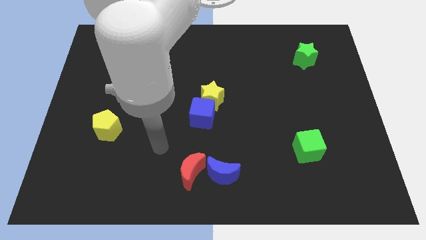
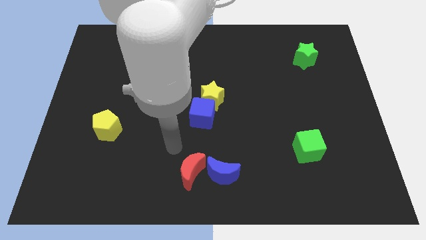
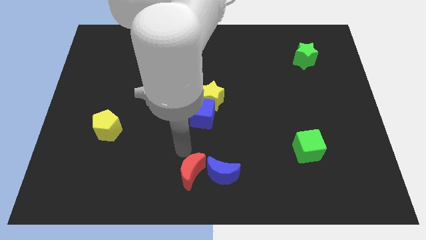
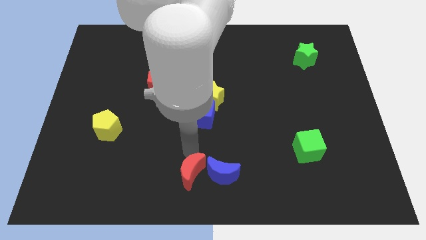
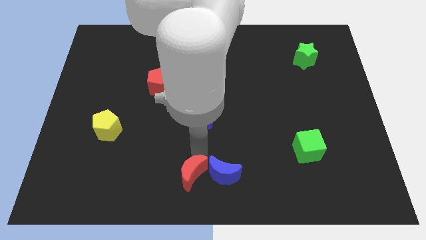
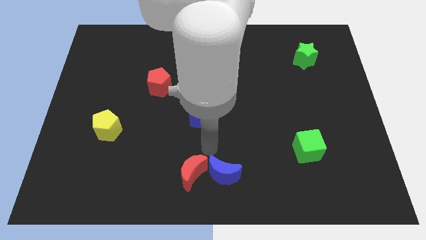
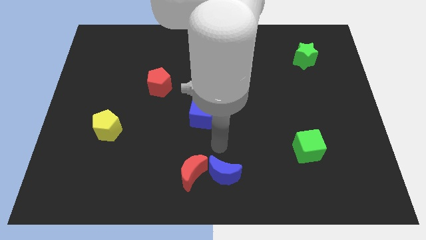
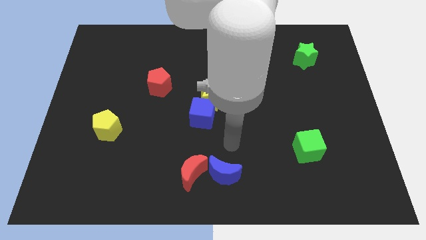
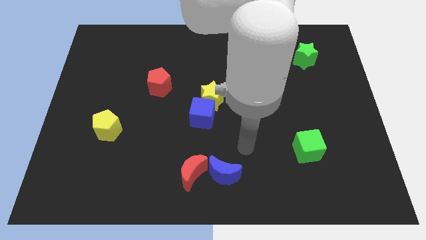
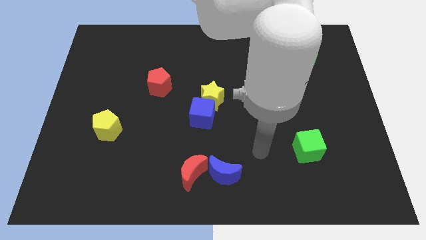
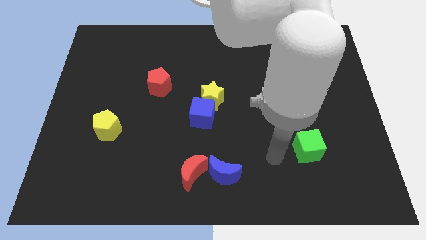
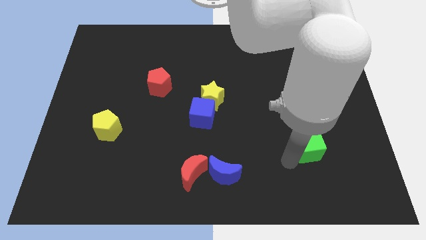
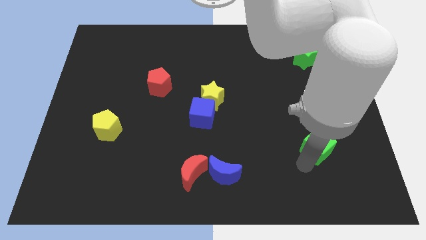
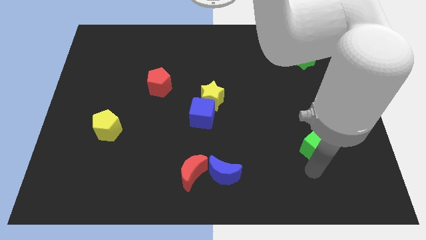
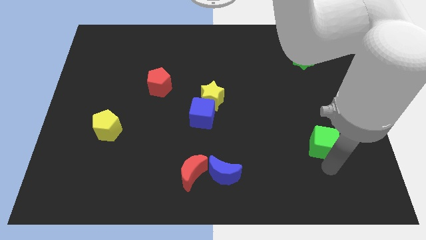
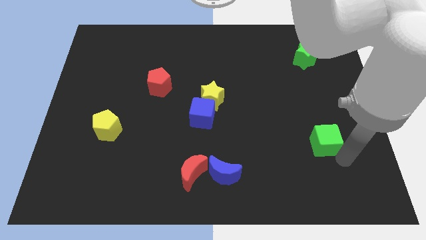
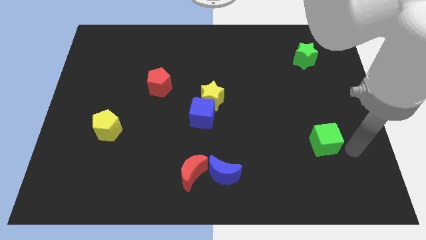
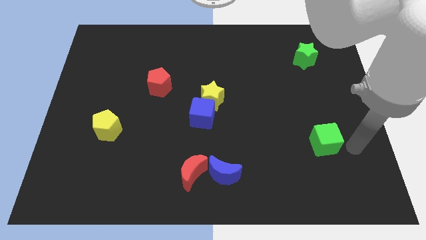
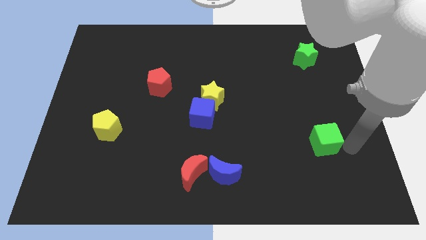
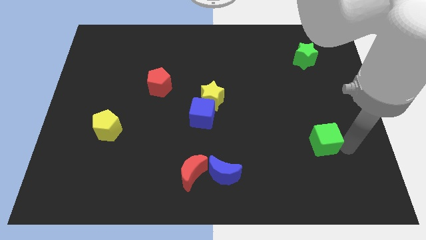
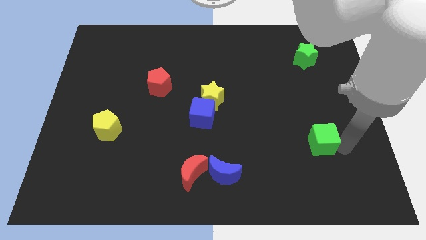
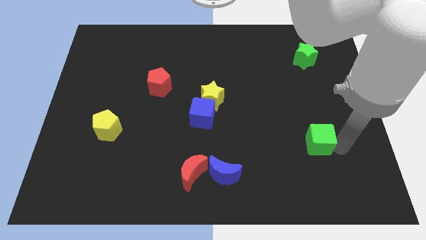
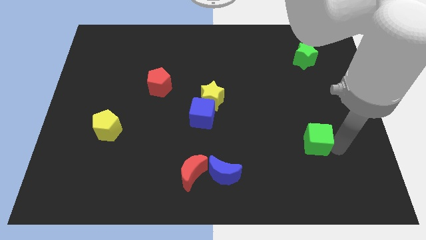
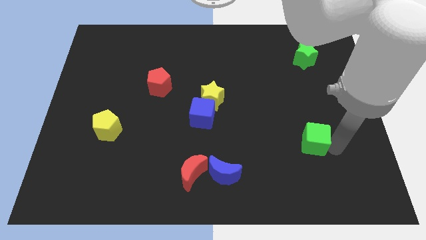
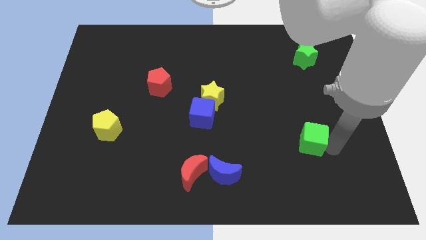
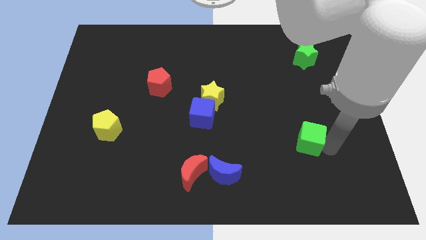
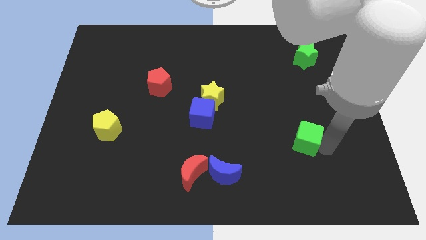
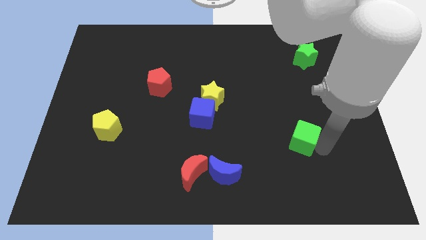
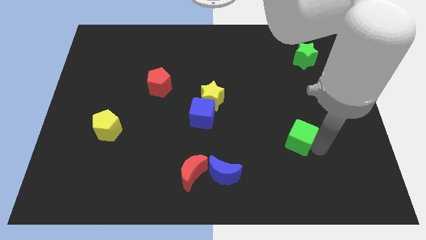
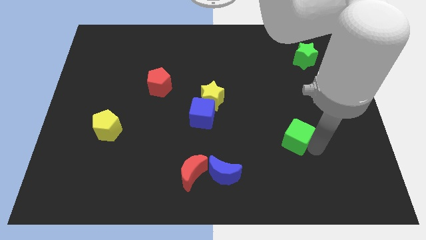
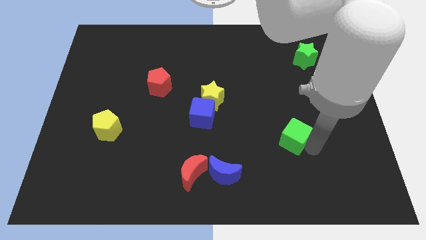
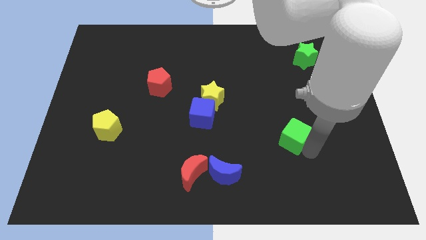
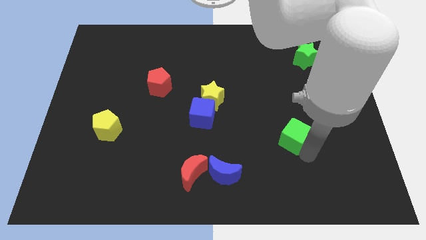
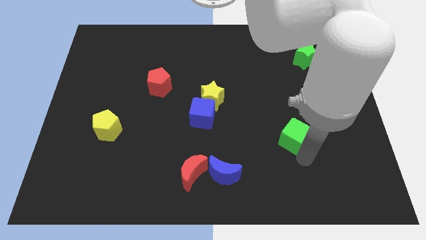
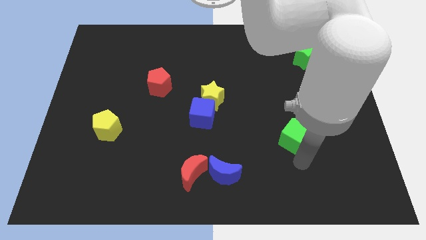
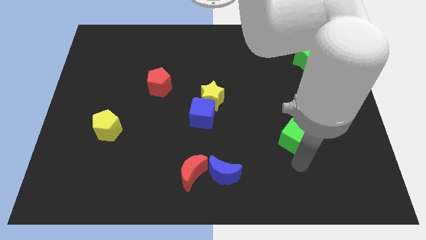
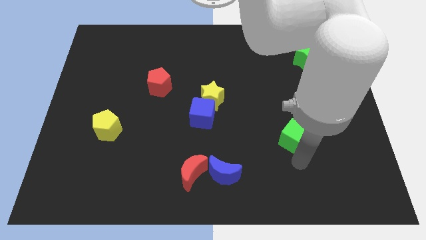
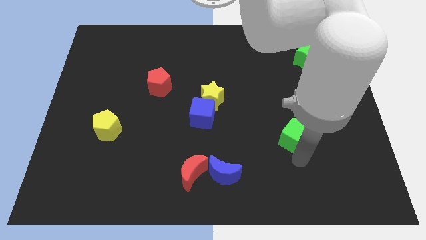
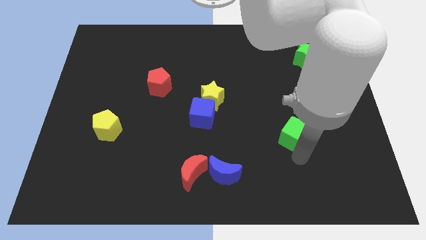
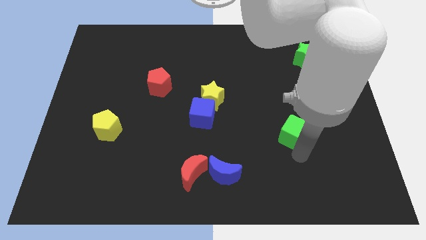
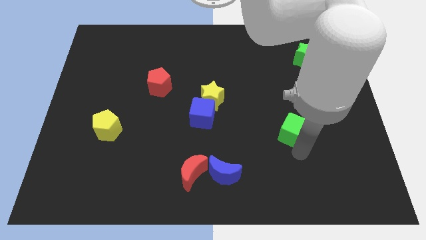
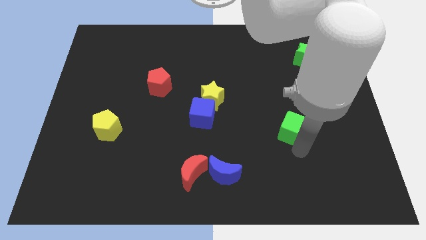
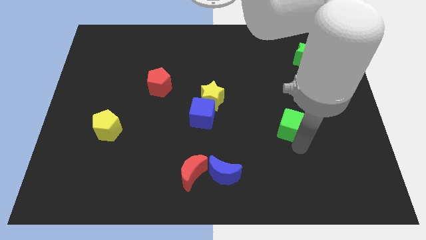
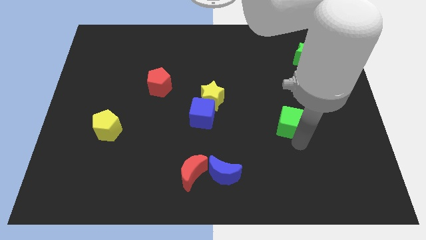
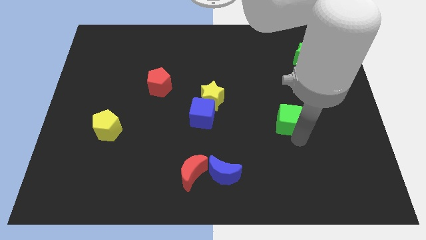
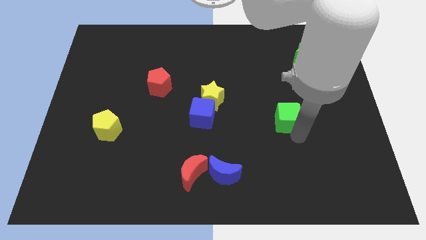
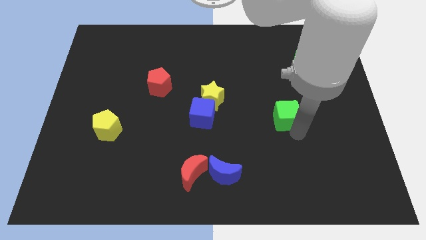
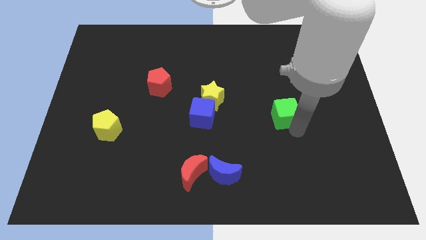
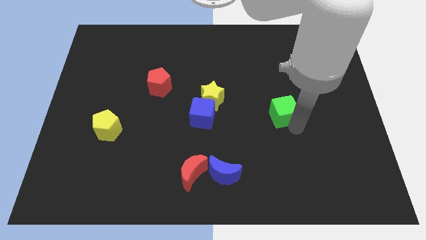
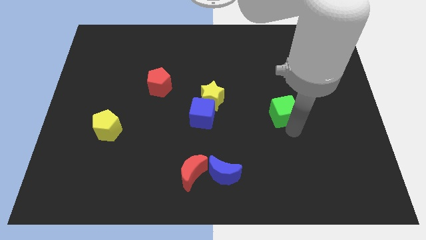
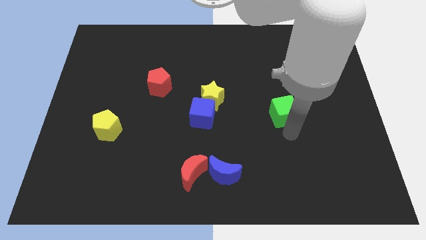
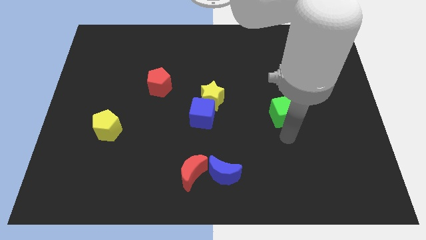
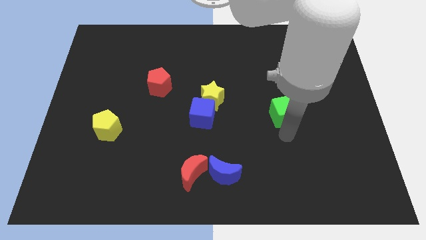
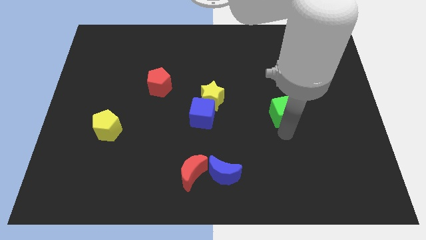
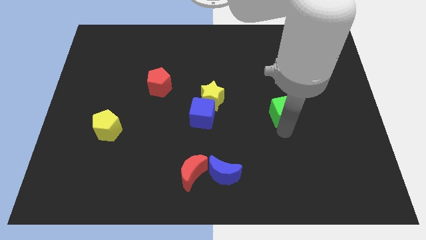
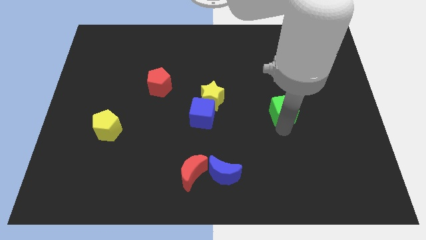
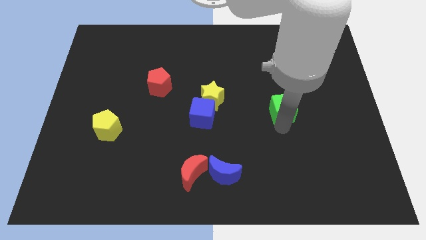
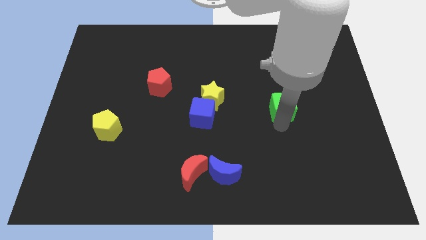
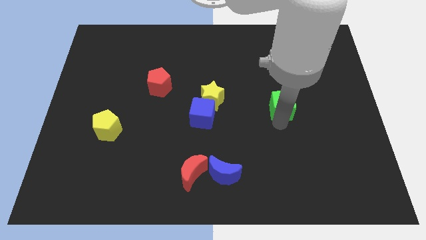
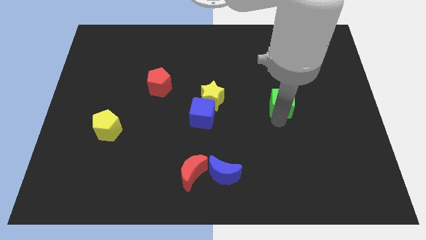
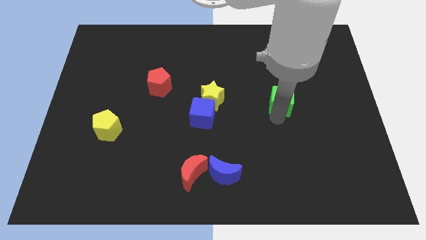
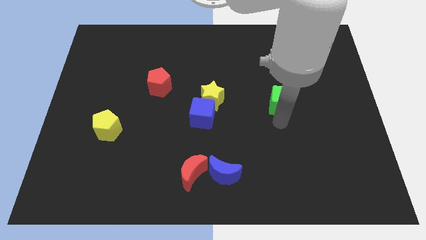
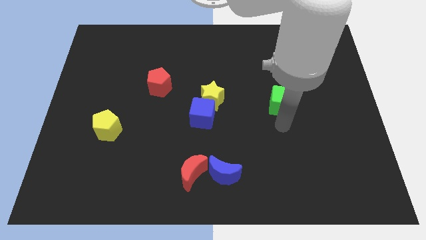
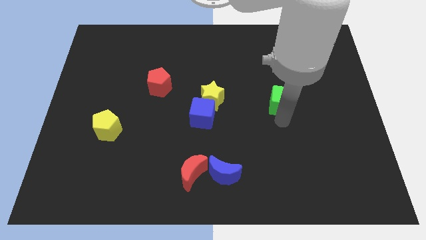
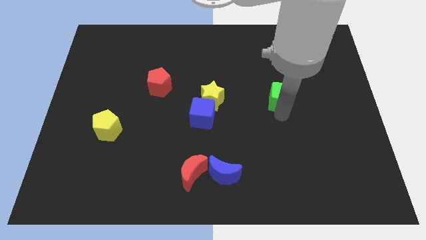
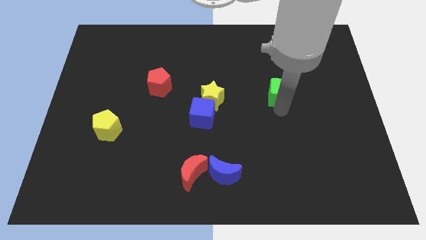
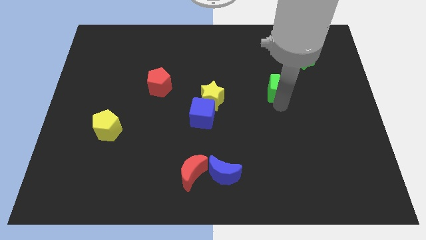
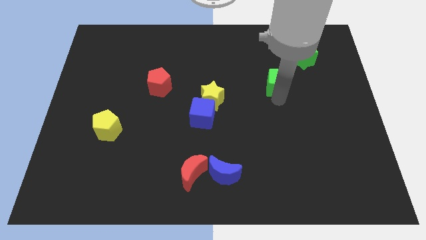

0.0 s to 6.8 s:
move the green cube to the bottom left side of the green star

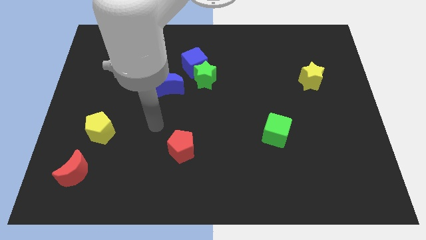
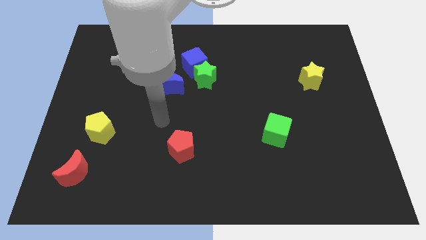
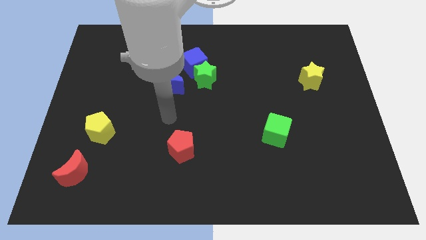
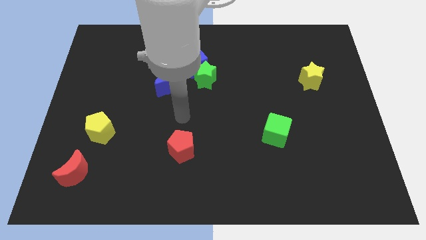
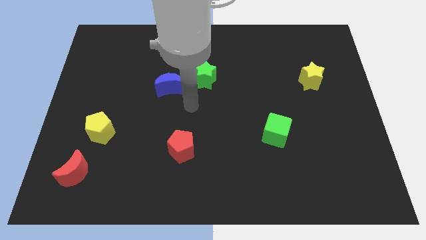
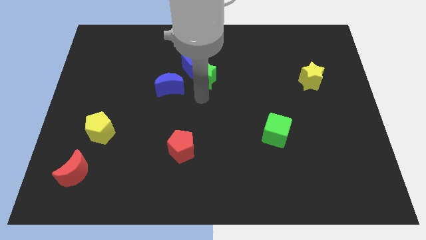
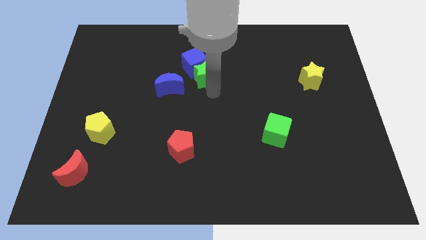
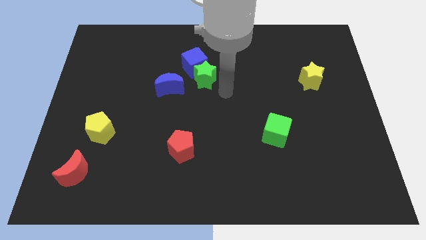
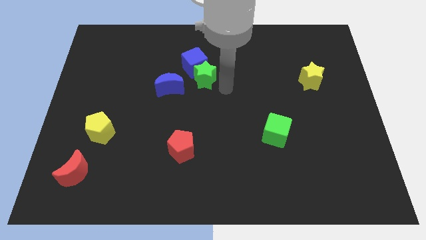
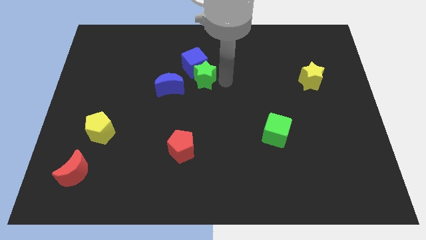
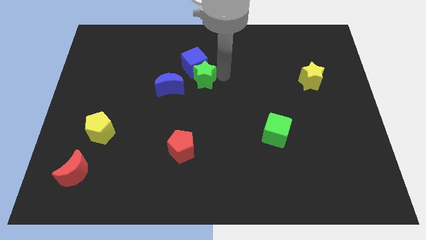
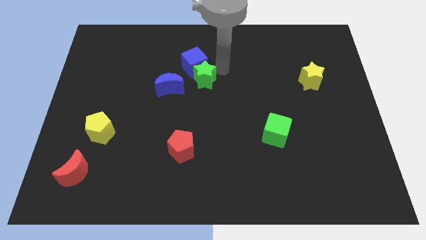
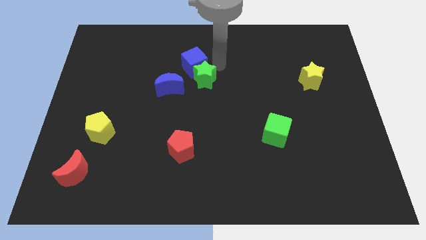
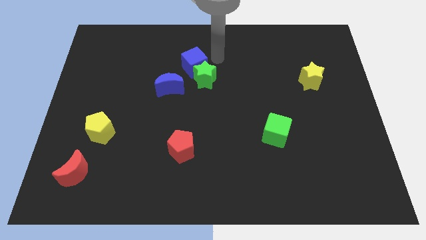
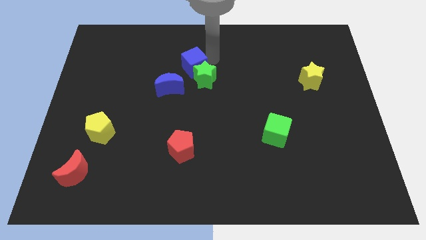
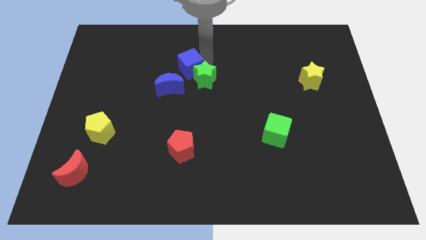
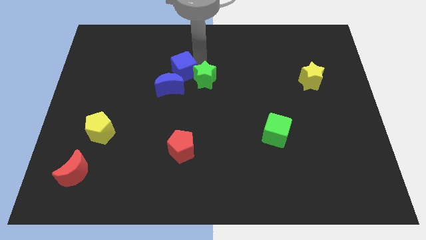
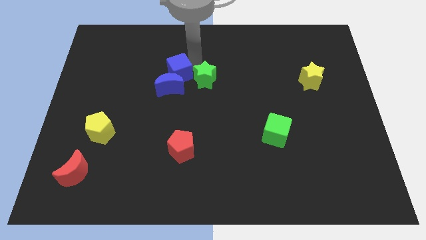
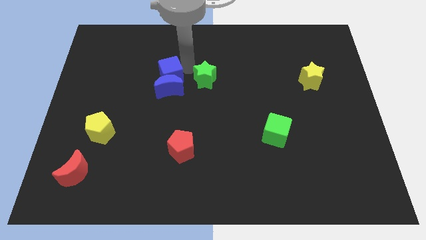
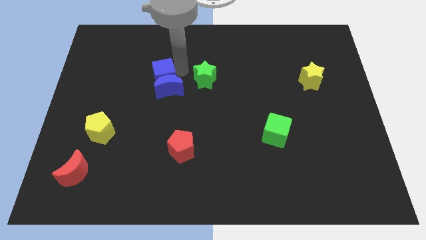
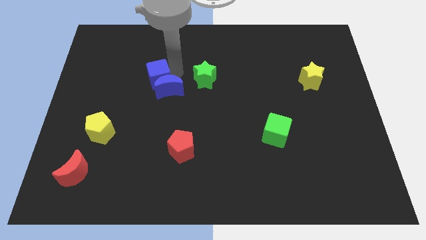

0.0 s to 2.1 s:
move the blue cube to the left side of the blue moon
